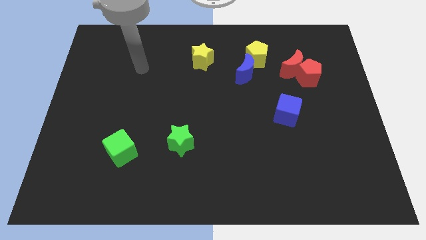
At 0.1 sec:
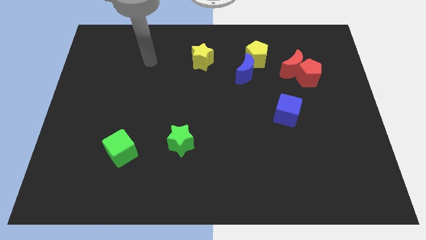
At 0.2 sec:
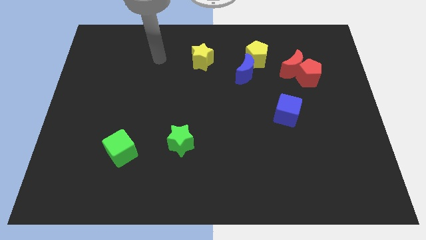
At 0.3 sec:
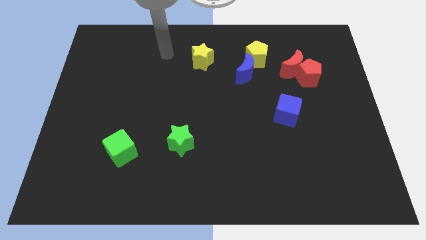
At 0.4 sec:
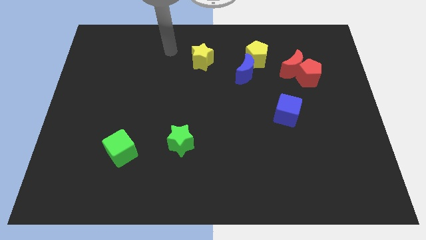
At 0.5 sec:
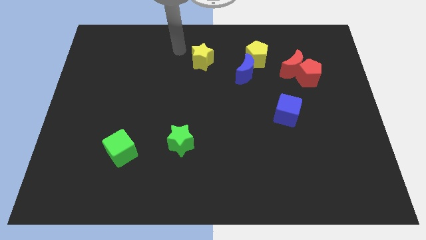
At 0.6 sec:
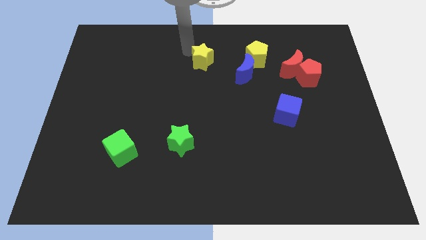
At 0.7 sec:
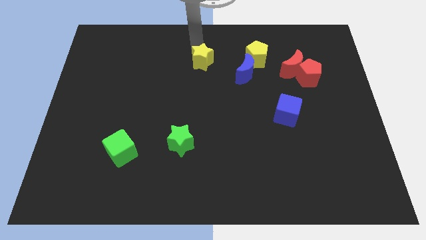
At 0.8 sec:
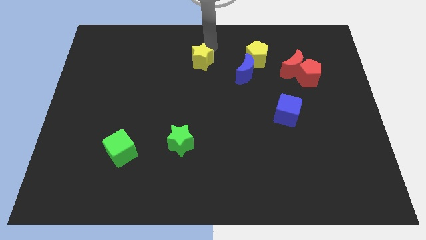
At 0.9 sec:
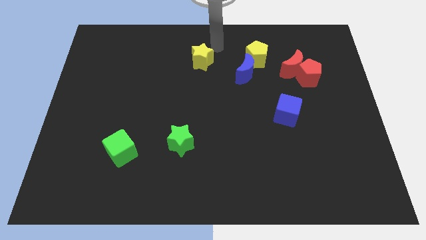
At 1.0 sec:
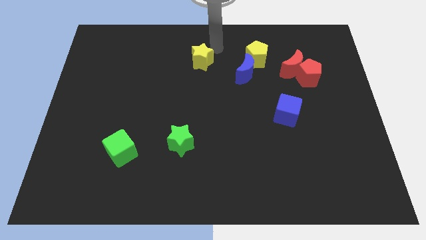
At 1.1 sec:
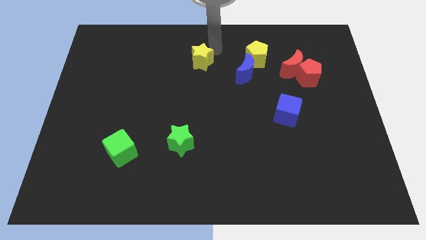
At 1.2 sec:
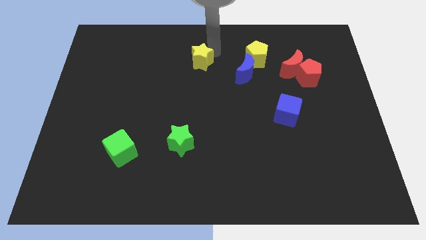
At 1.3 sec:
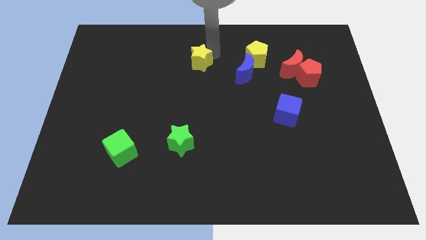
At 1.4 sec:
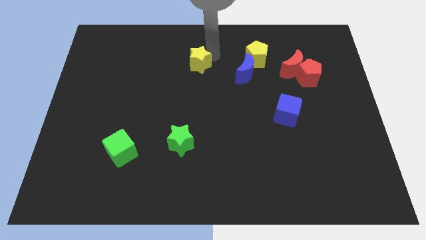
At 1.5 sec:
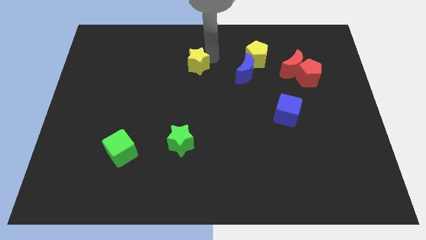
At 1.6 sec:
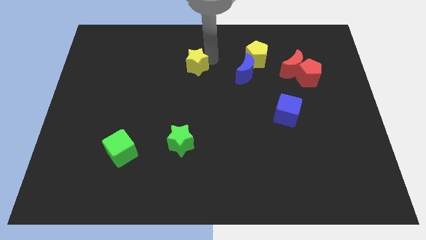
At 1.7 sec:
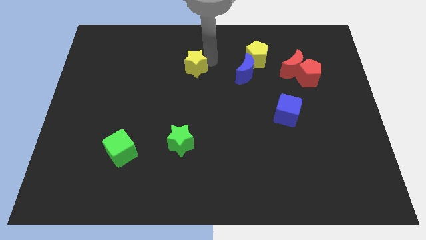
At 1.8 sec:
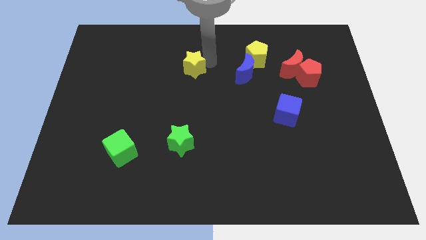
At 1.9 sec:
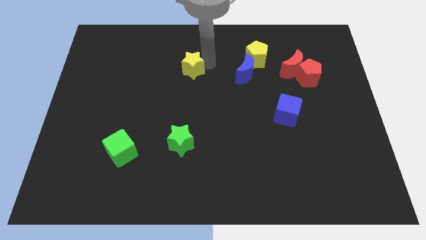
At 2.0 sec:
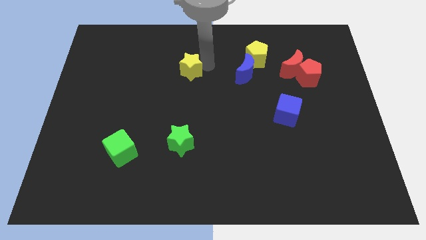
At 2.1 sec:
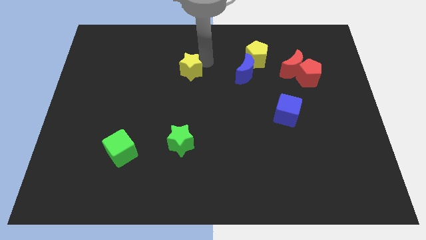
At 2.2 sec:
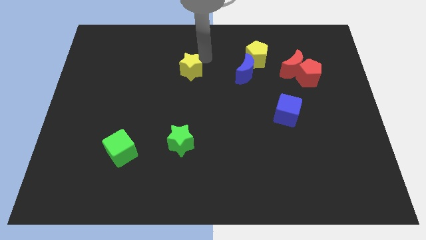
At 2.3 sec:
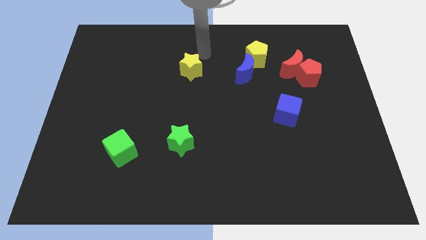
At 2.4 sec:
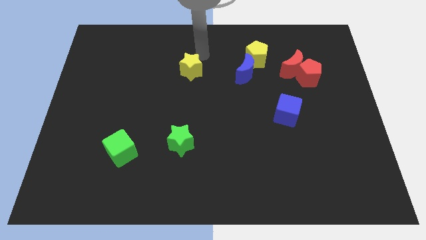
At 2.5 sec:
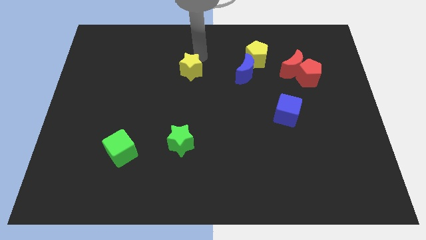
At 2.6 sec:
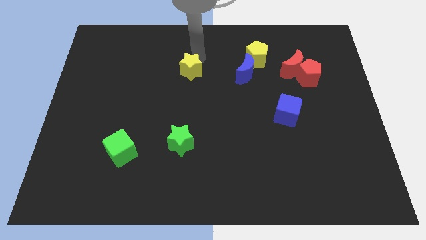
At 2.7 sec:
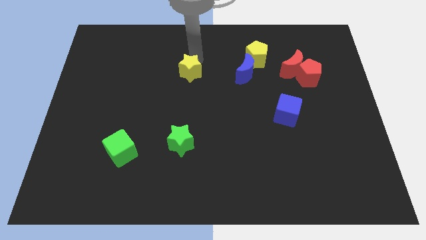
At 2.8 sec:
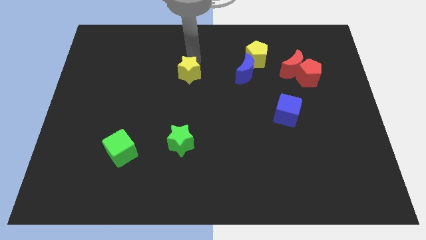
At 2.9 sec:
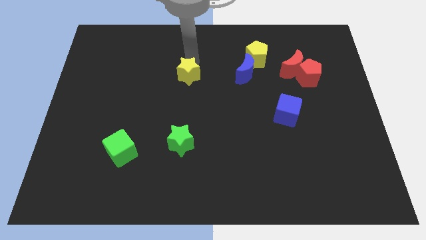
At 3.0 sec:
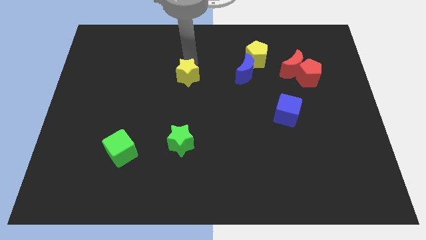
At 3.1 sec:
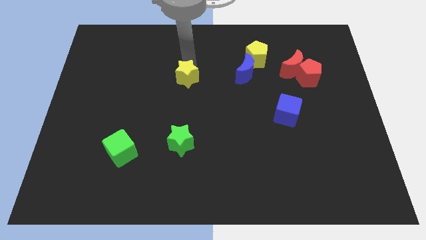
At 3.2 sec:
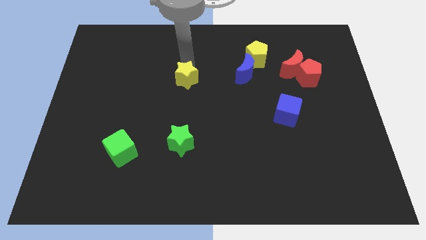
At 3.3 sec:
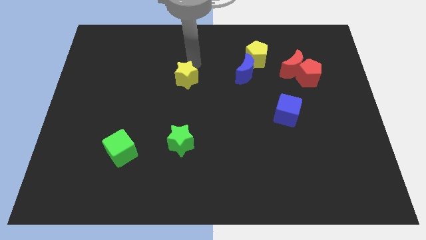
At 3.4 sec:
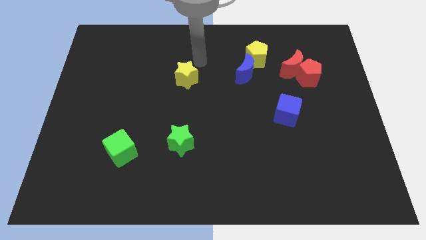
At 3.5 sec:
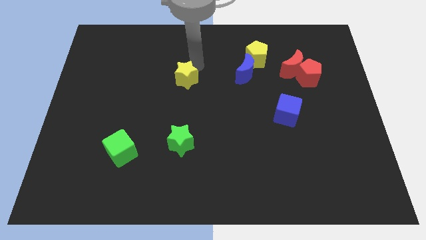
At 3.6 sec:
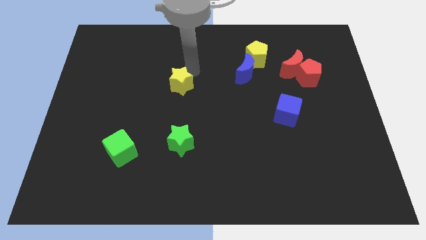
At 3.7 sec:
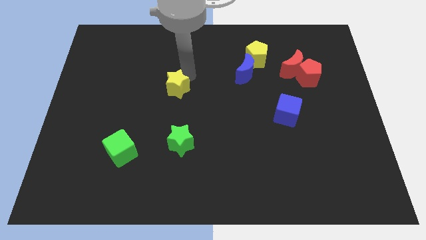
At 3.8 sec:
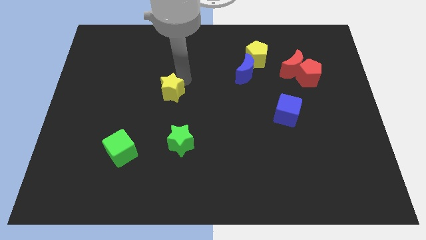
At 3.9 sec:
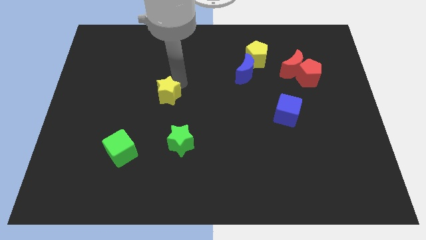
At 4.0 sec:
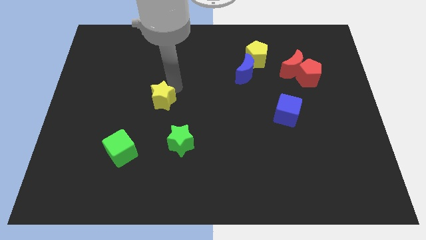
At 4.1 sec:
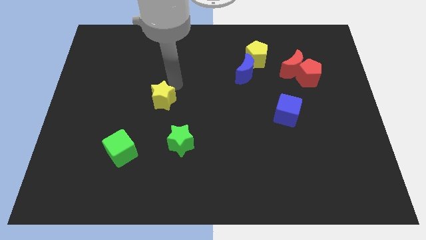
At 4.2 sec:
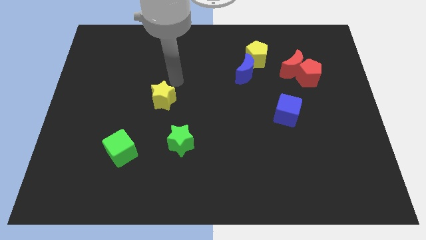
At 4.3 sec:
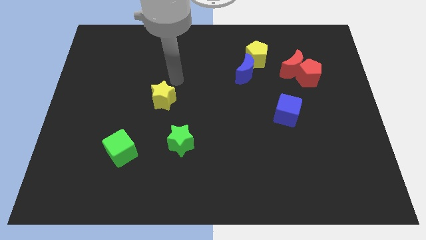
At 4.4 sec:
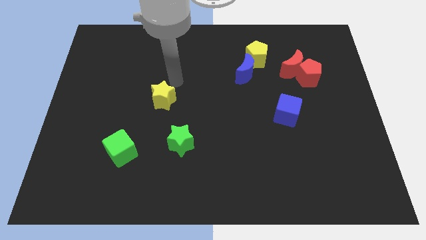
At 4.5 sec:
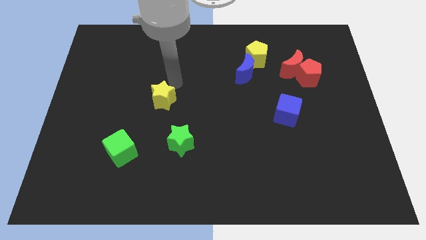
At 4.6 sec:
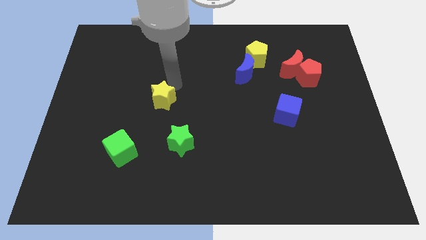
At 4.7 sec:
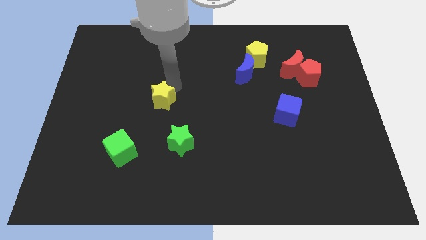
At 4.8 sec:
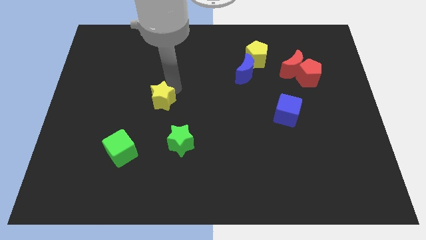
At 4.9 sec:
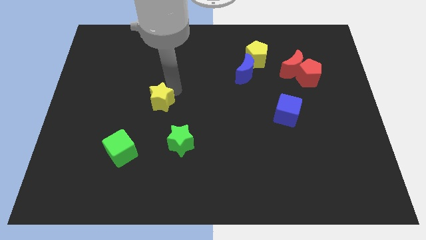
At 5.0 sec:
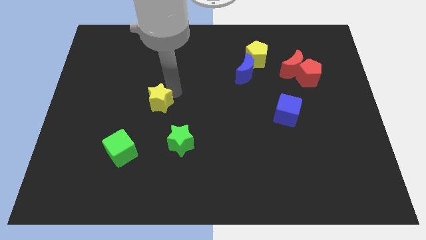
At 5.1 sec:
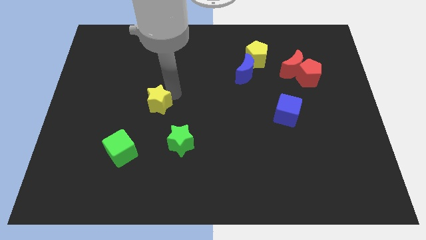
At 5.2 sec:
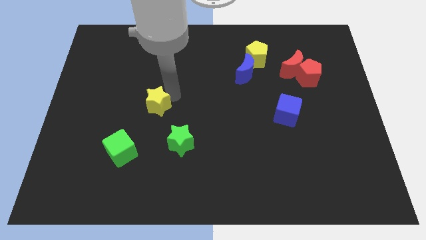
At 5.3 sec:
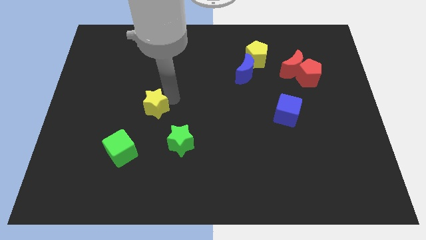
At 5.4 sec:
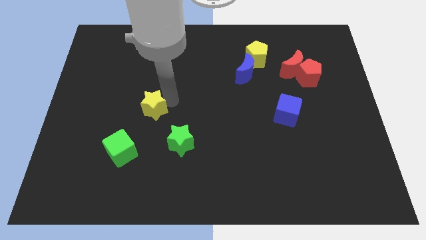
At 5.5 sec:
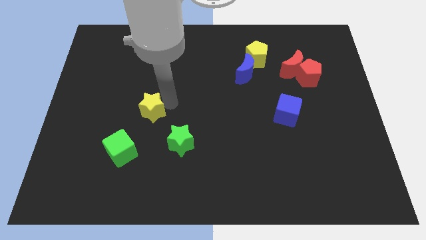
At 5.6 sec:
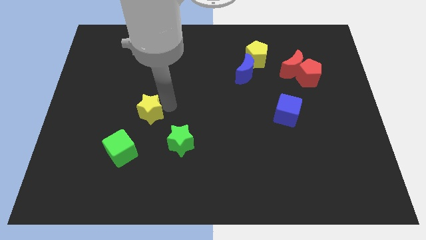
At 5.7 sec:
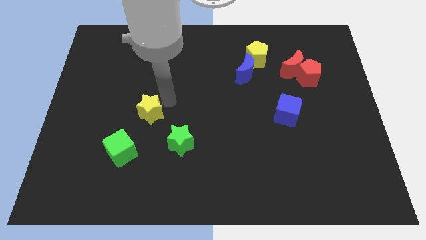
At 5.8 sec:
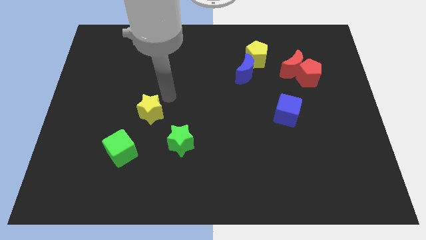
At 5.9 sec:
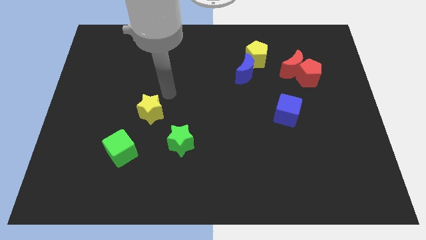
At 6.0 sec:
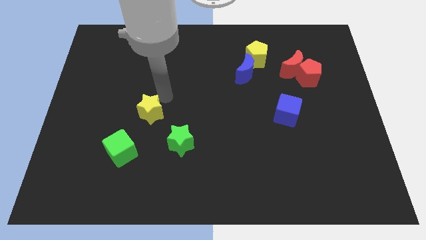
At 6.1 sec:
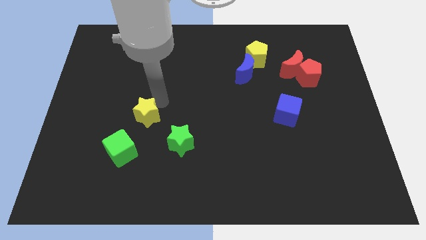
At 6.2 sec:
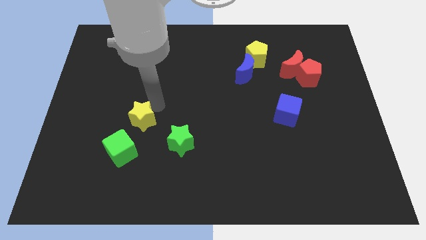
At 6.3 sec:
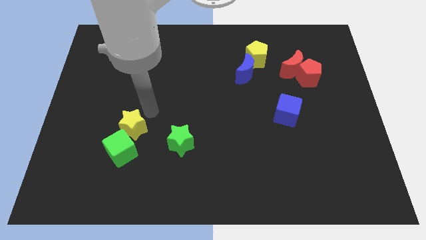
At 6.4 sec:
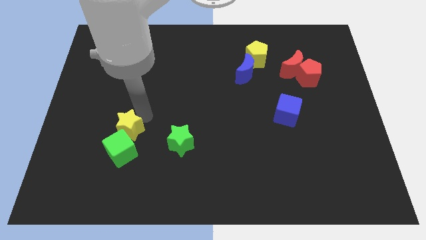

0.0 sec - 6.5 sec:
put the yellow star to the green cube

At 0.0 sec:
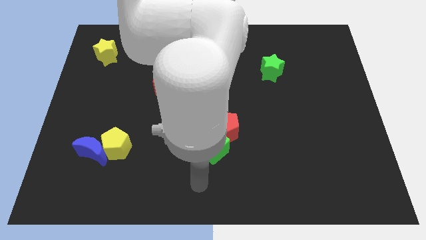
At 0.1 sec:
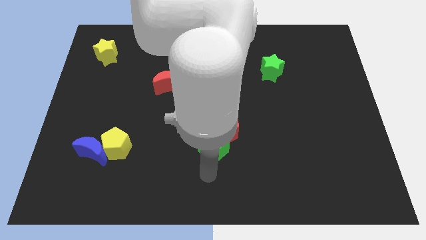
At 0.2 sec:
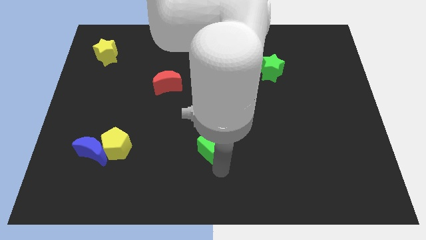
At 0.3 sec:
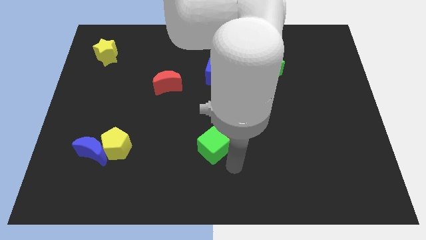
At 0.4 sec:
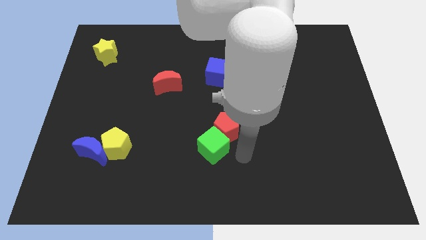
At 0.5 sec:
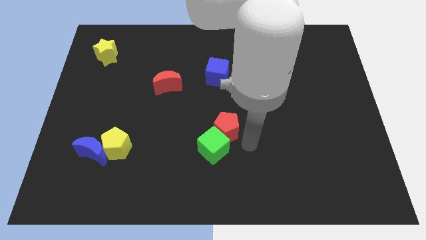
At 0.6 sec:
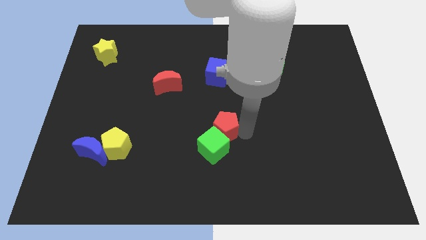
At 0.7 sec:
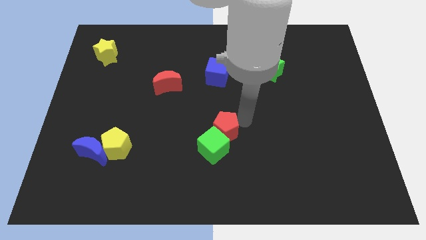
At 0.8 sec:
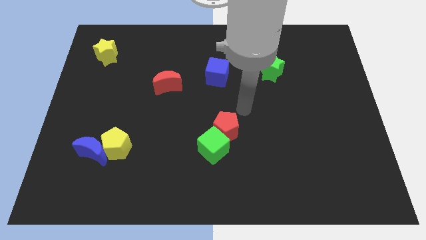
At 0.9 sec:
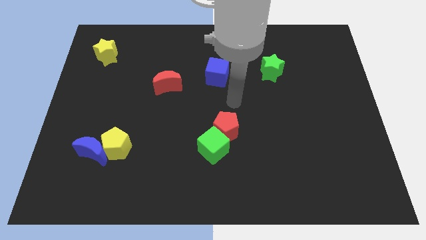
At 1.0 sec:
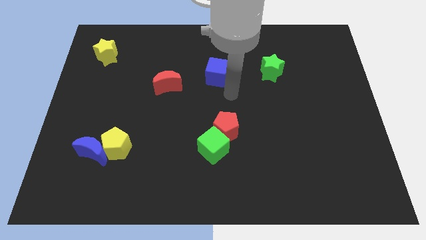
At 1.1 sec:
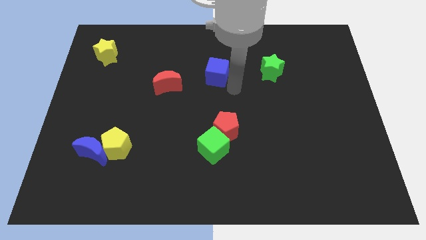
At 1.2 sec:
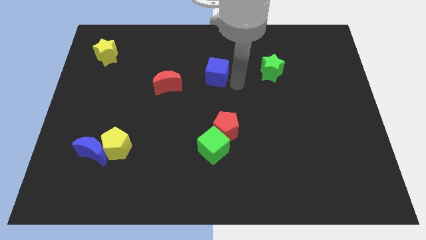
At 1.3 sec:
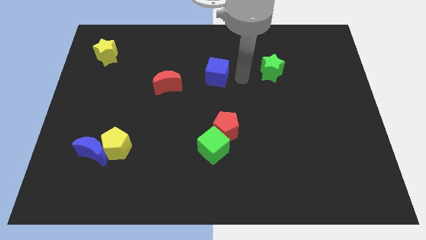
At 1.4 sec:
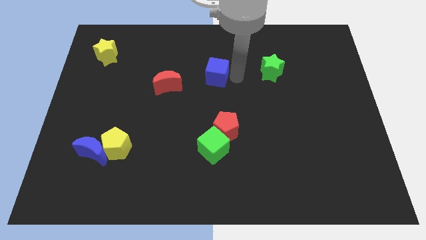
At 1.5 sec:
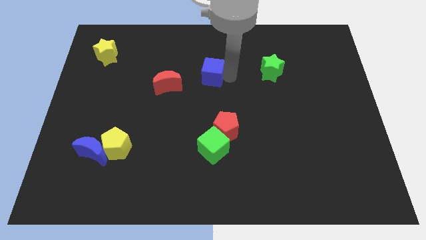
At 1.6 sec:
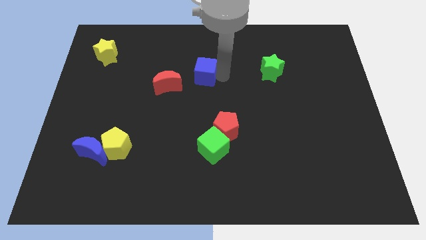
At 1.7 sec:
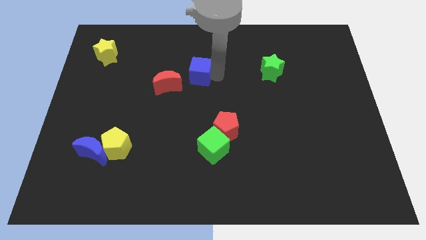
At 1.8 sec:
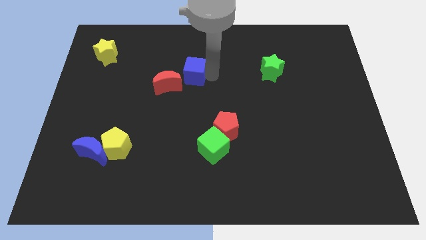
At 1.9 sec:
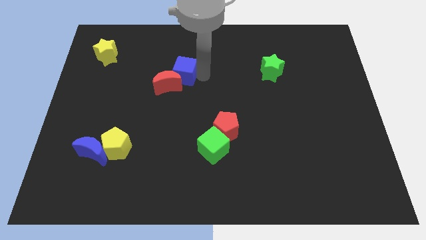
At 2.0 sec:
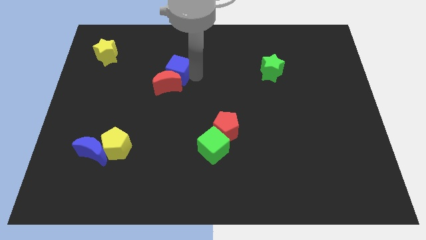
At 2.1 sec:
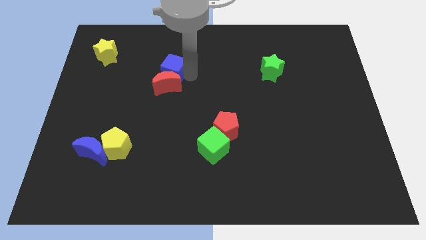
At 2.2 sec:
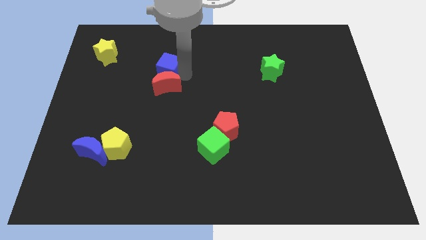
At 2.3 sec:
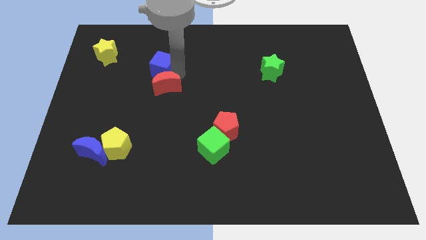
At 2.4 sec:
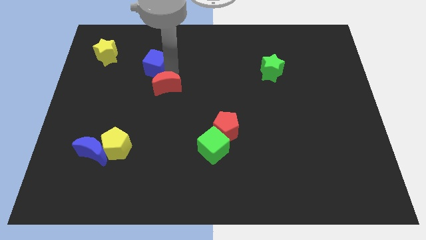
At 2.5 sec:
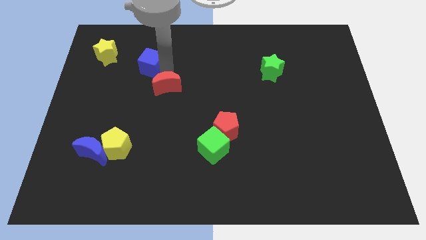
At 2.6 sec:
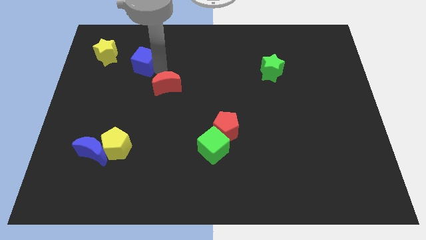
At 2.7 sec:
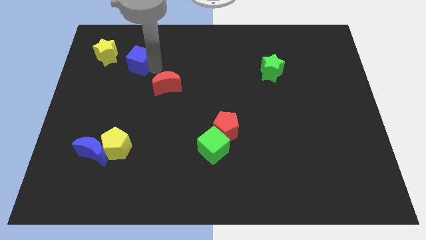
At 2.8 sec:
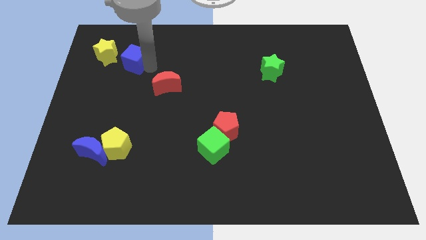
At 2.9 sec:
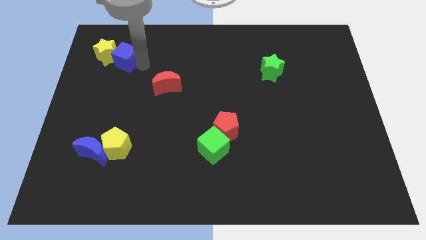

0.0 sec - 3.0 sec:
push the blue cube close to the yellow star
